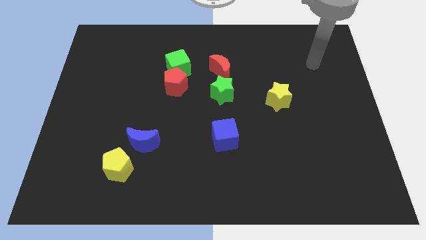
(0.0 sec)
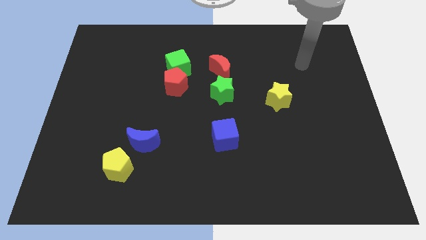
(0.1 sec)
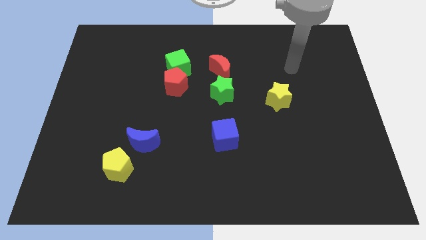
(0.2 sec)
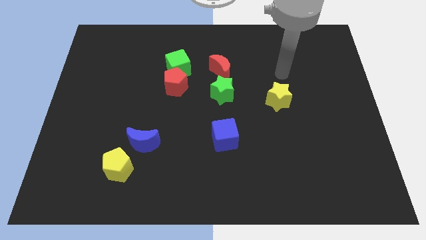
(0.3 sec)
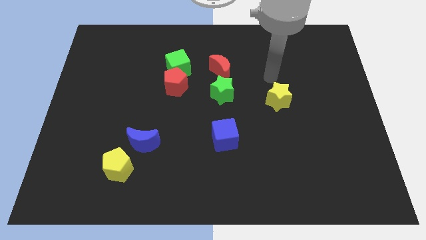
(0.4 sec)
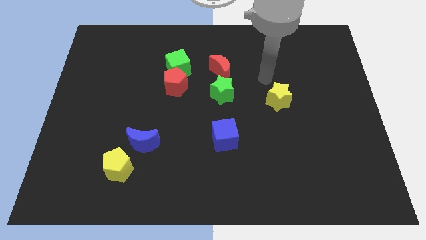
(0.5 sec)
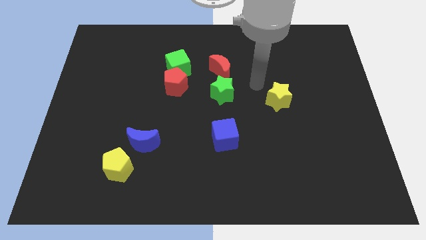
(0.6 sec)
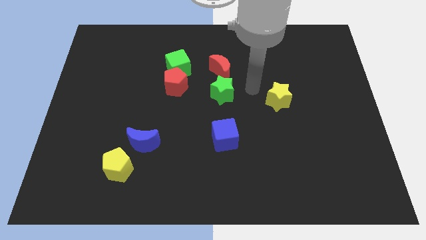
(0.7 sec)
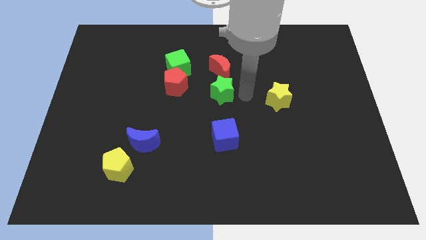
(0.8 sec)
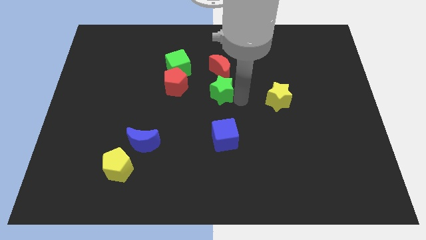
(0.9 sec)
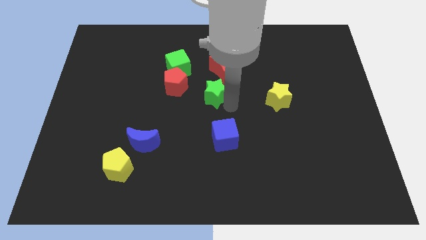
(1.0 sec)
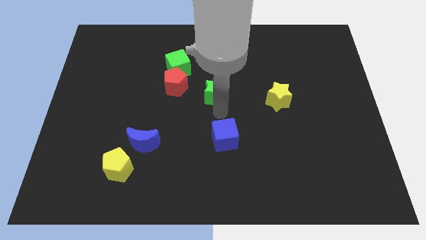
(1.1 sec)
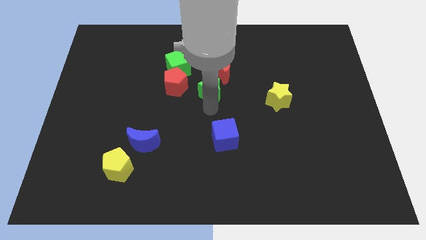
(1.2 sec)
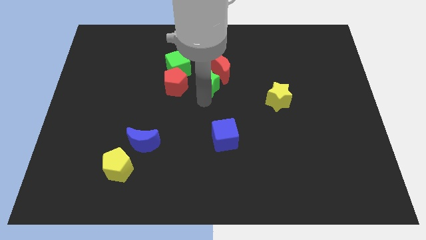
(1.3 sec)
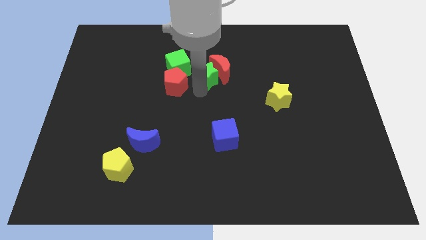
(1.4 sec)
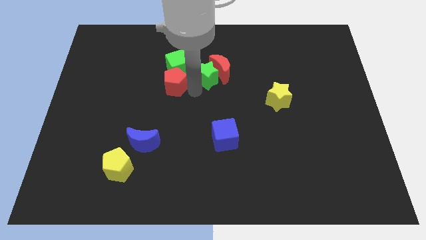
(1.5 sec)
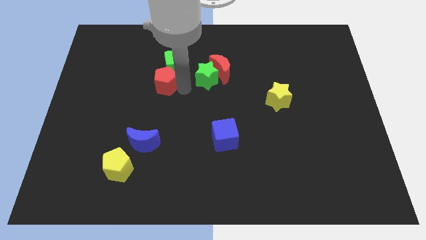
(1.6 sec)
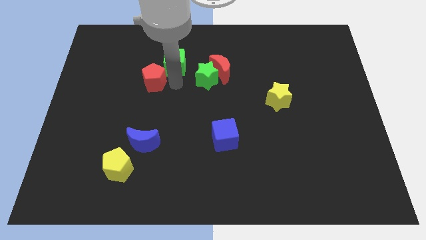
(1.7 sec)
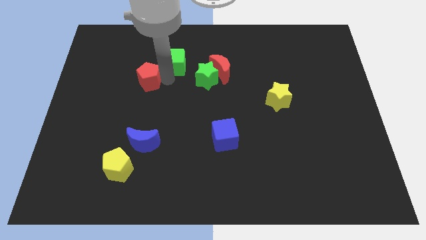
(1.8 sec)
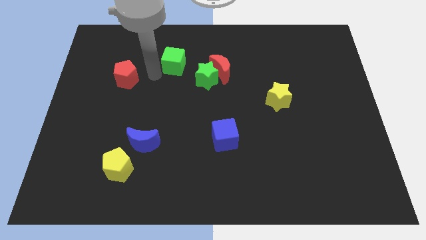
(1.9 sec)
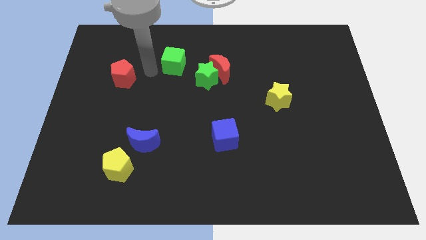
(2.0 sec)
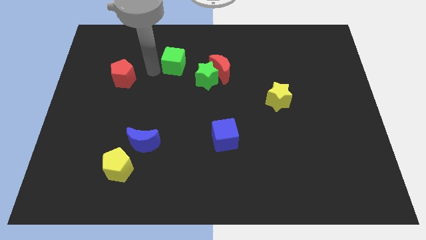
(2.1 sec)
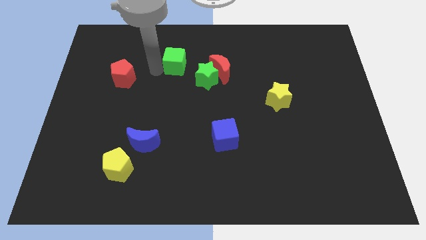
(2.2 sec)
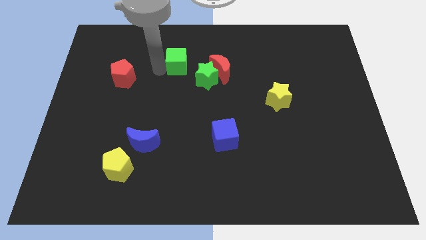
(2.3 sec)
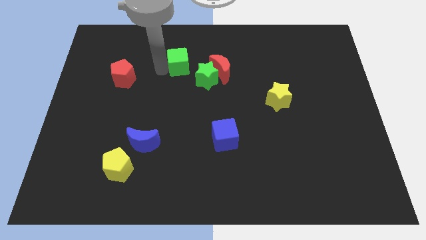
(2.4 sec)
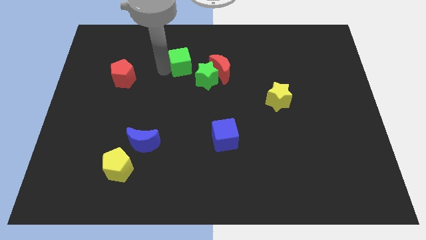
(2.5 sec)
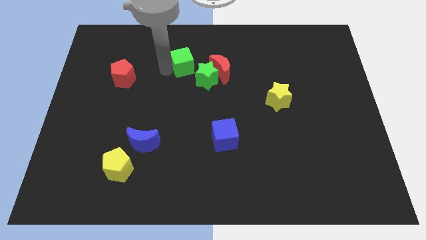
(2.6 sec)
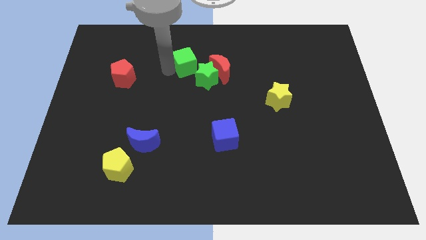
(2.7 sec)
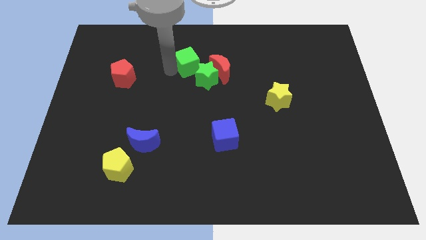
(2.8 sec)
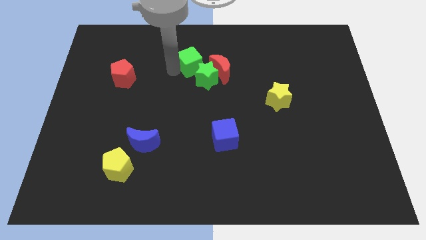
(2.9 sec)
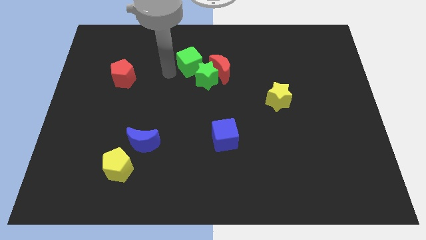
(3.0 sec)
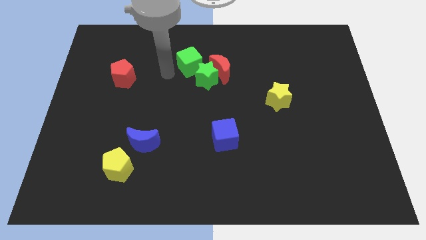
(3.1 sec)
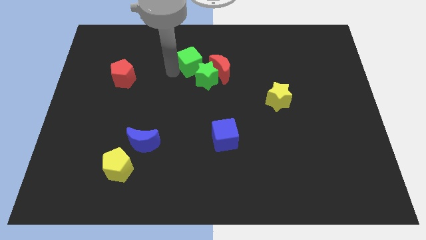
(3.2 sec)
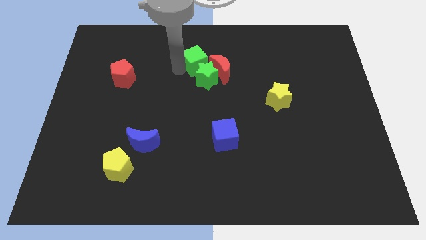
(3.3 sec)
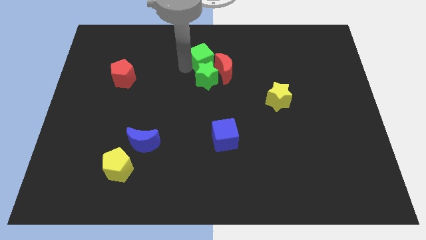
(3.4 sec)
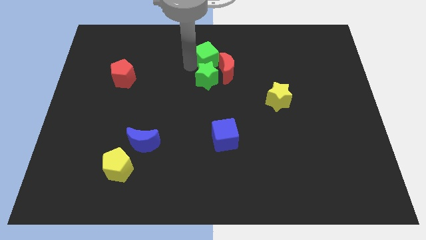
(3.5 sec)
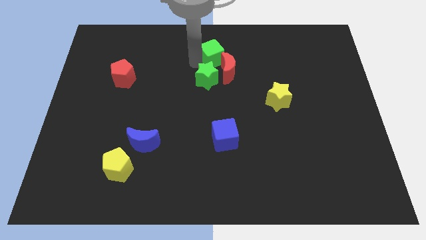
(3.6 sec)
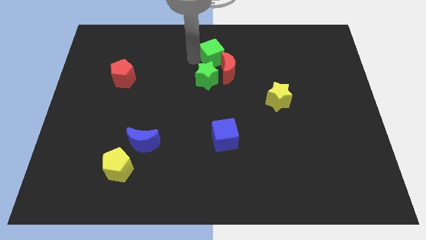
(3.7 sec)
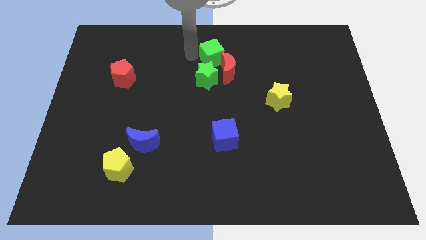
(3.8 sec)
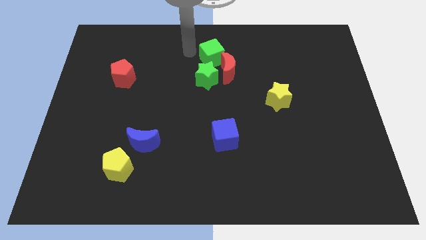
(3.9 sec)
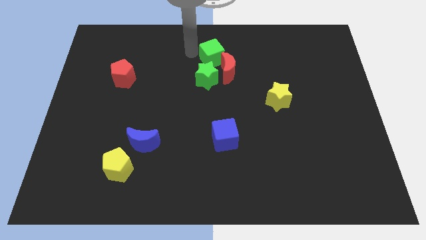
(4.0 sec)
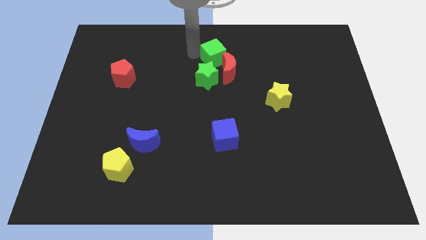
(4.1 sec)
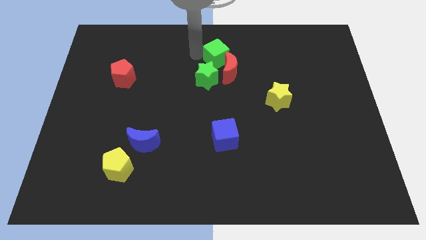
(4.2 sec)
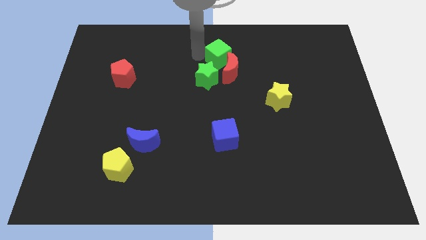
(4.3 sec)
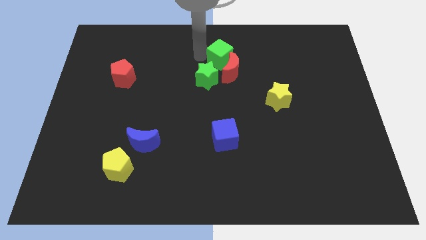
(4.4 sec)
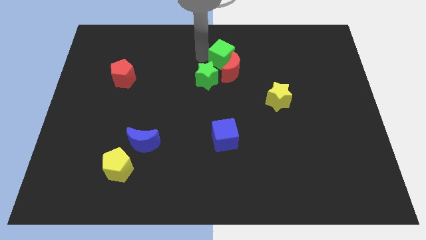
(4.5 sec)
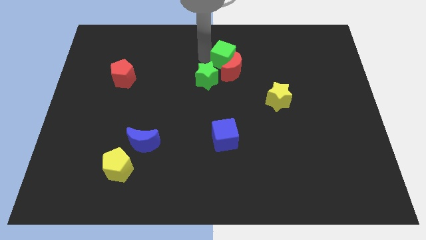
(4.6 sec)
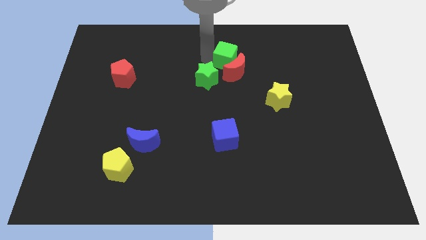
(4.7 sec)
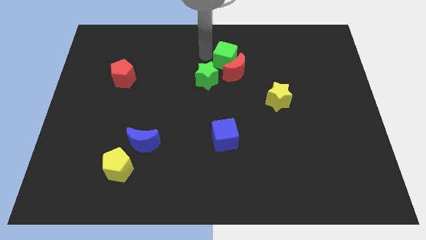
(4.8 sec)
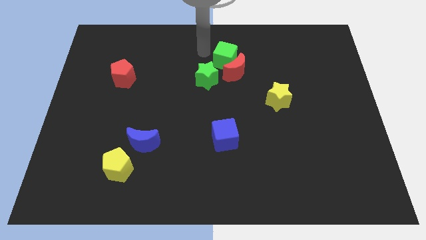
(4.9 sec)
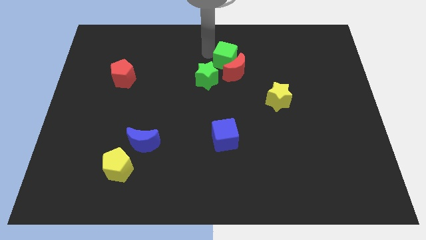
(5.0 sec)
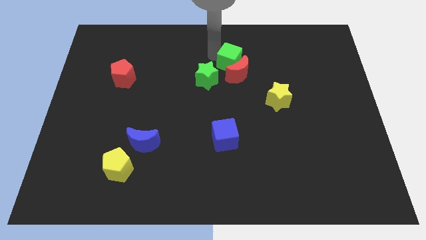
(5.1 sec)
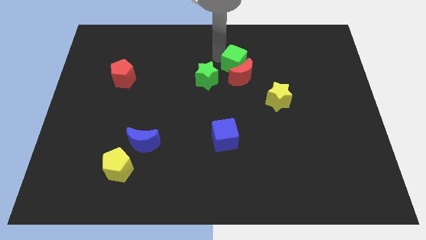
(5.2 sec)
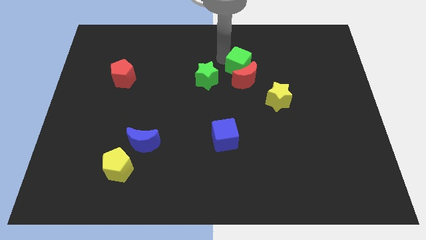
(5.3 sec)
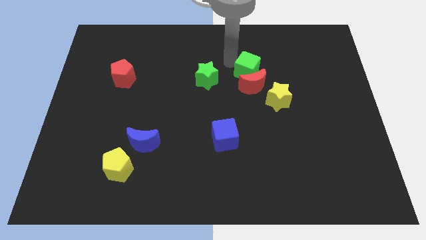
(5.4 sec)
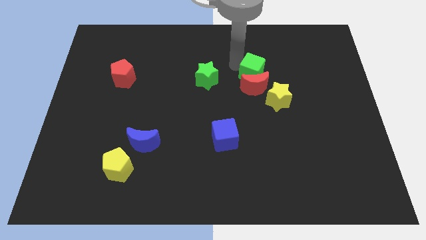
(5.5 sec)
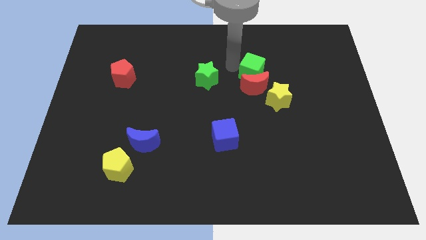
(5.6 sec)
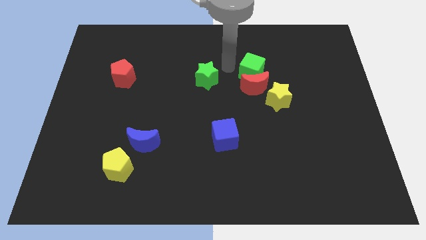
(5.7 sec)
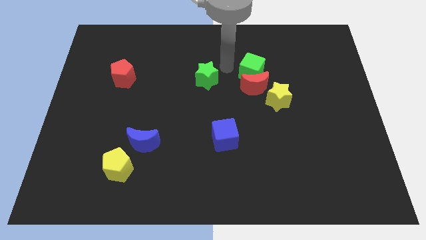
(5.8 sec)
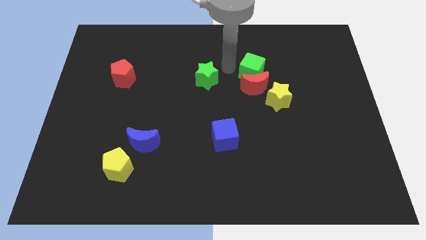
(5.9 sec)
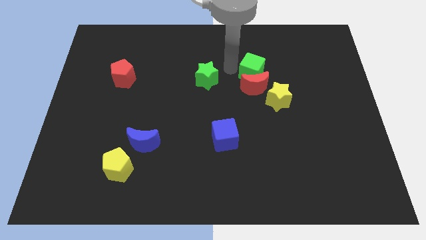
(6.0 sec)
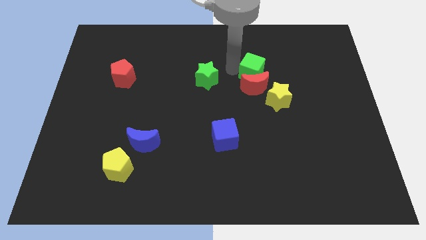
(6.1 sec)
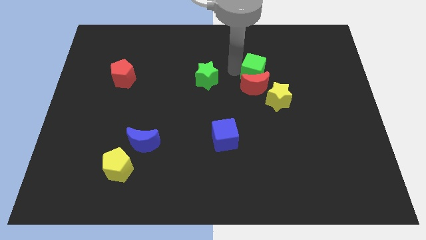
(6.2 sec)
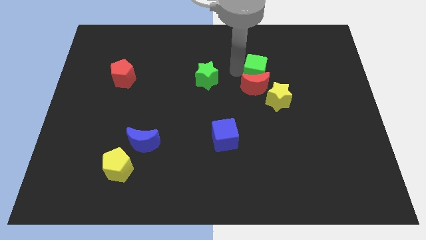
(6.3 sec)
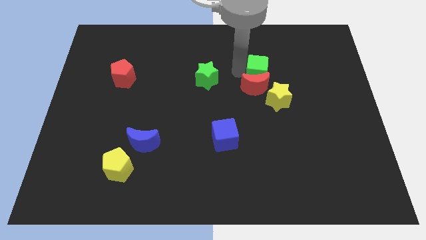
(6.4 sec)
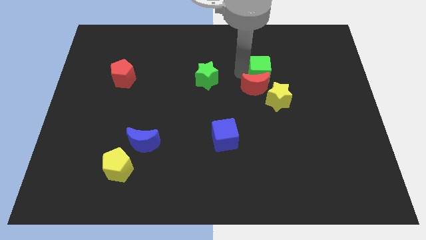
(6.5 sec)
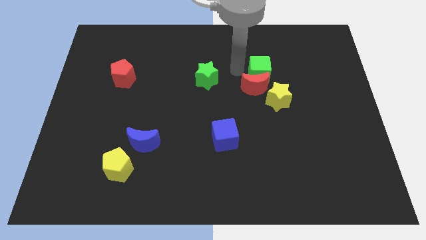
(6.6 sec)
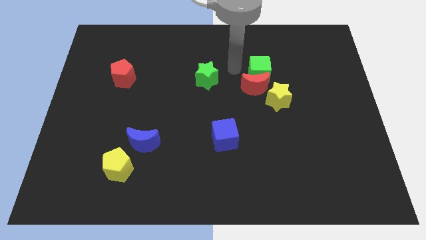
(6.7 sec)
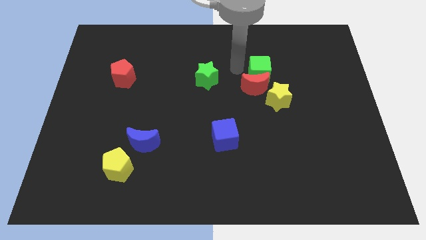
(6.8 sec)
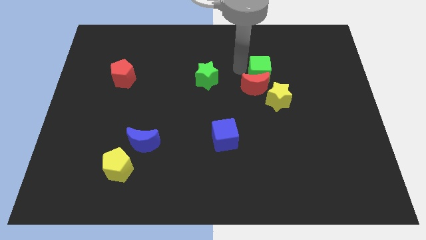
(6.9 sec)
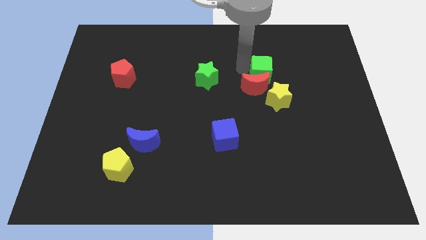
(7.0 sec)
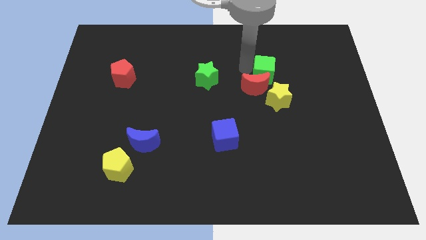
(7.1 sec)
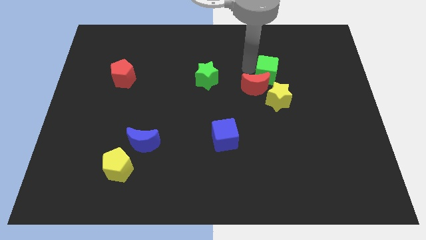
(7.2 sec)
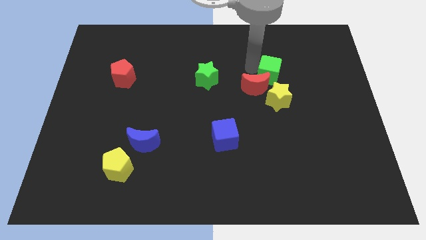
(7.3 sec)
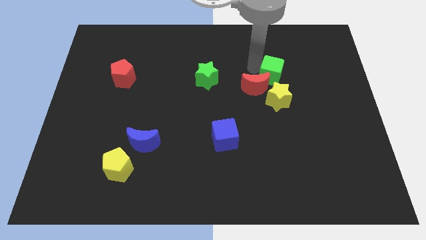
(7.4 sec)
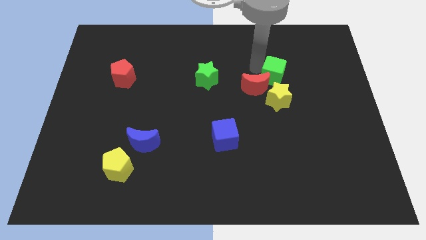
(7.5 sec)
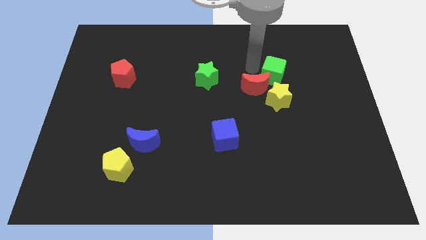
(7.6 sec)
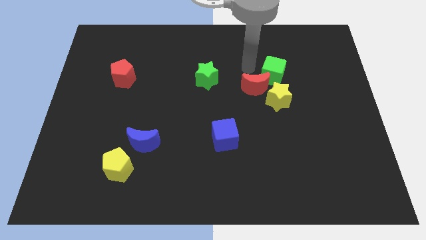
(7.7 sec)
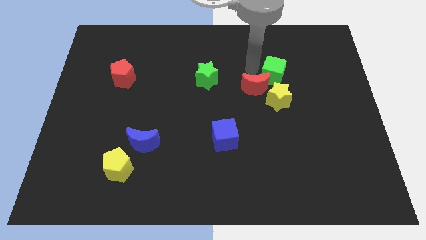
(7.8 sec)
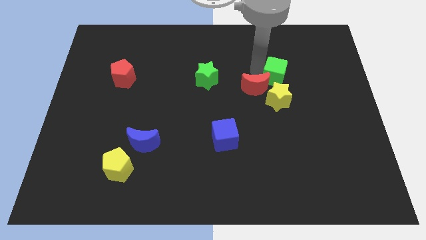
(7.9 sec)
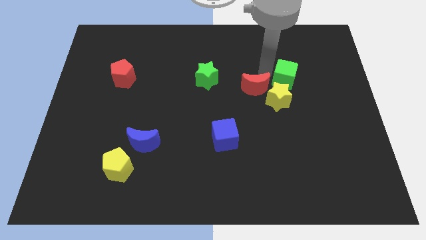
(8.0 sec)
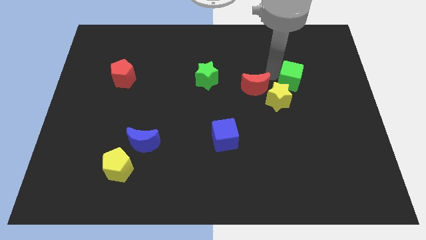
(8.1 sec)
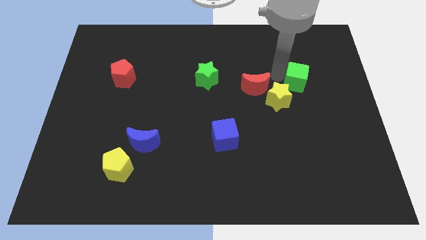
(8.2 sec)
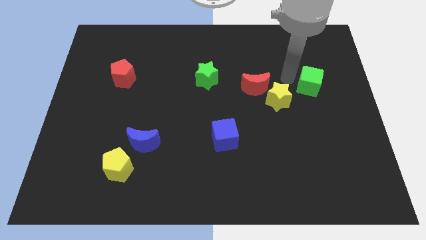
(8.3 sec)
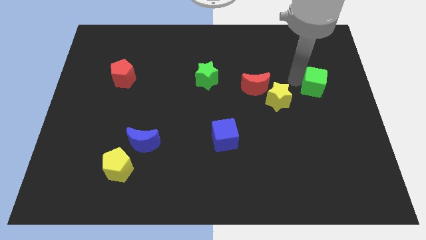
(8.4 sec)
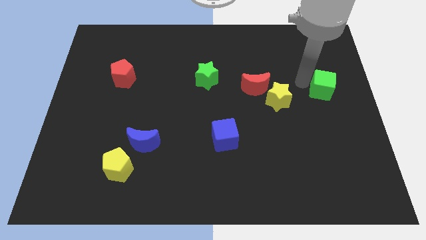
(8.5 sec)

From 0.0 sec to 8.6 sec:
move the green cube to the right side of the board
